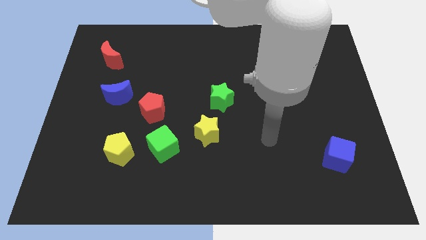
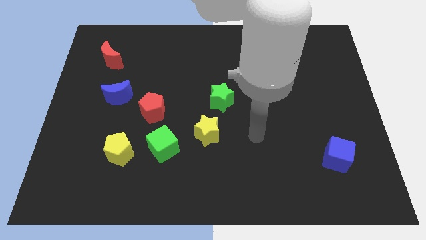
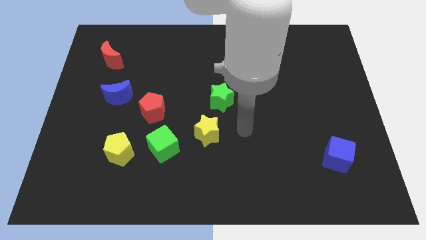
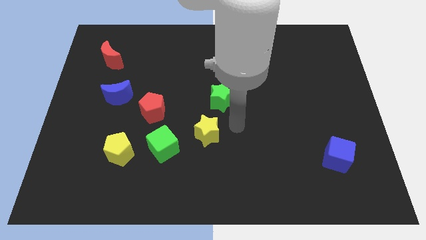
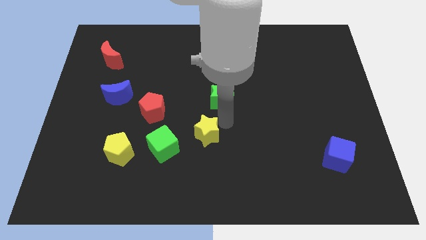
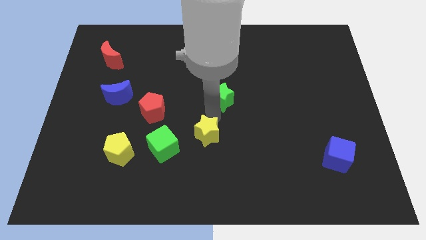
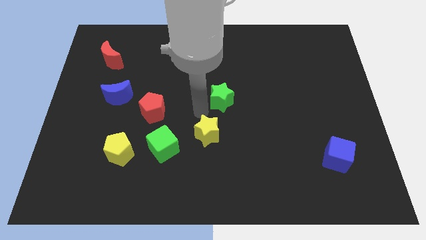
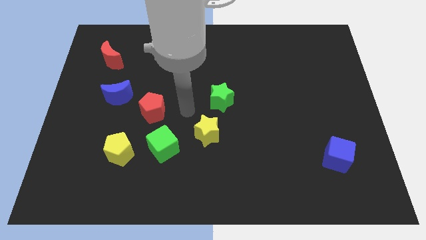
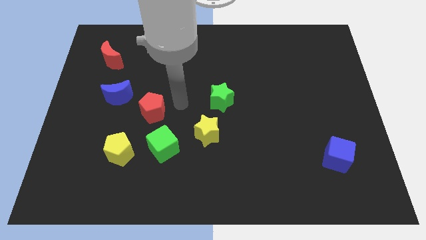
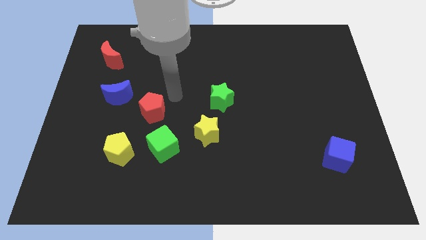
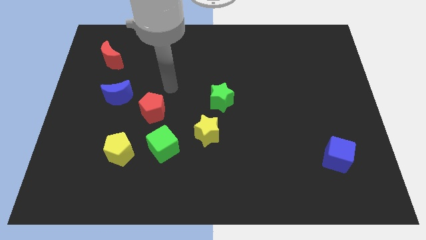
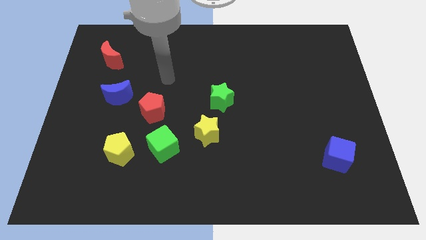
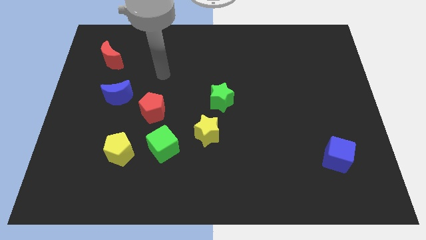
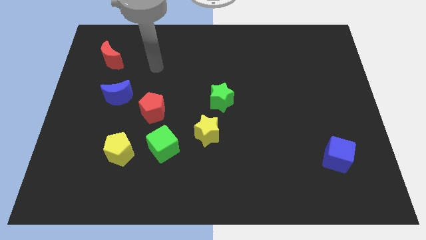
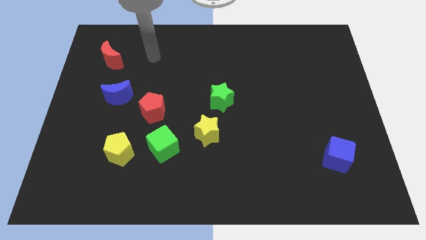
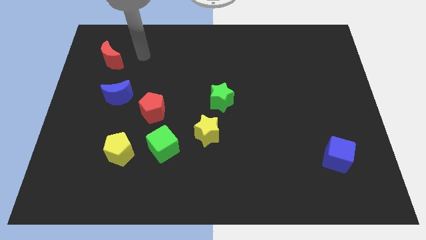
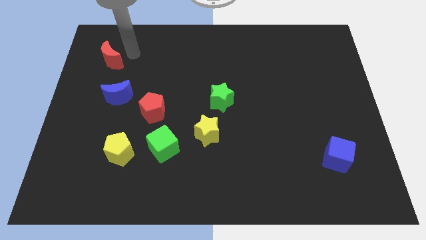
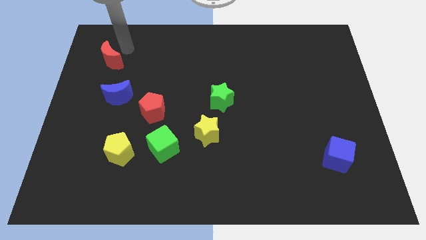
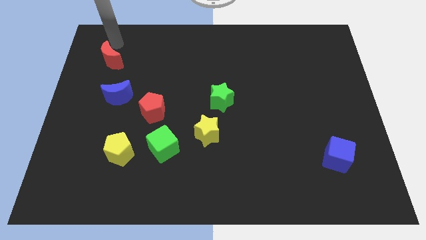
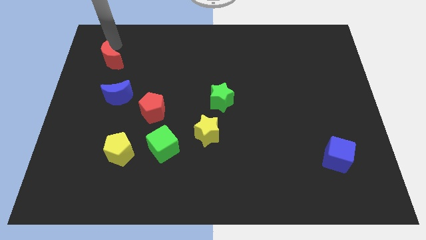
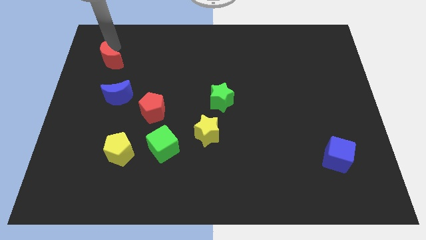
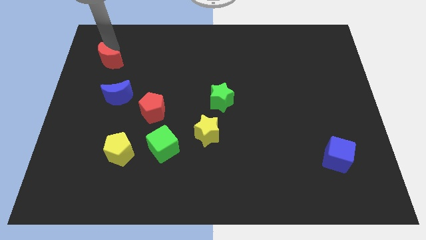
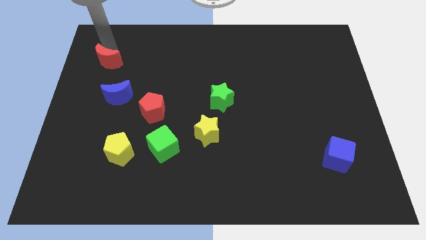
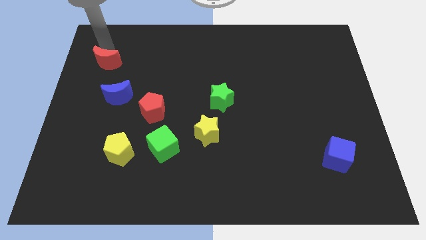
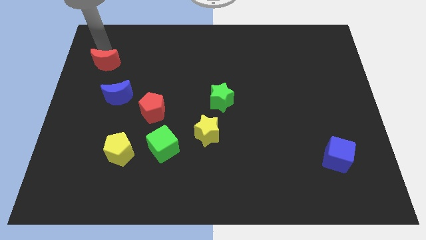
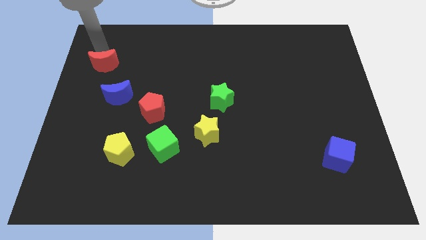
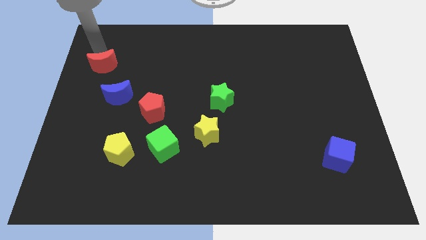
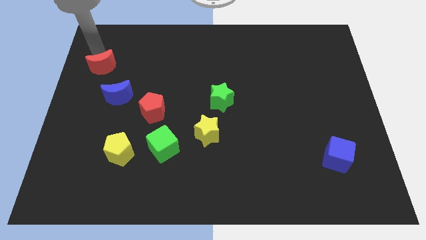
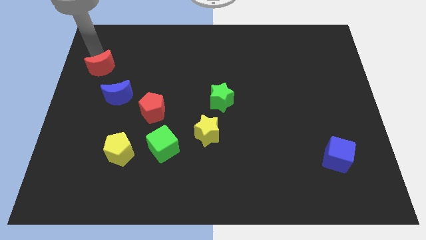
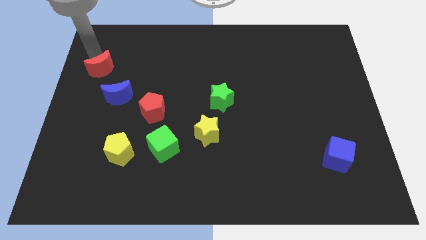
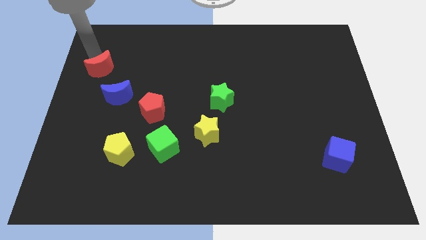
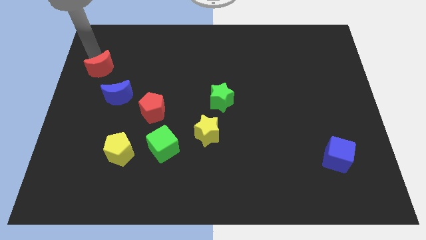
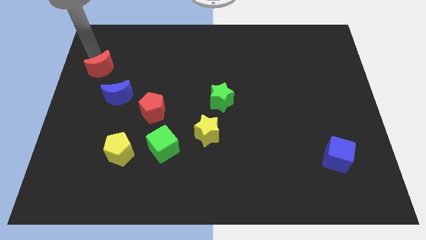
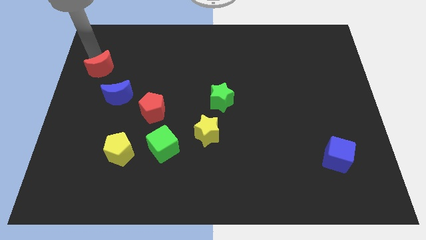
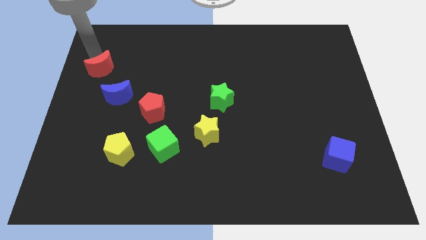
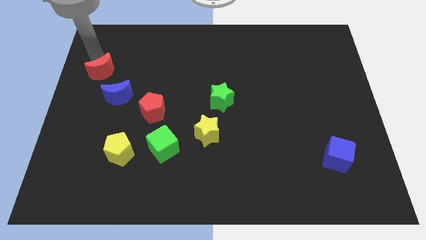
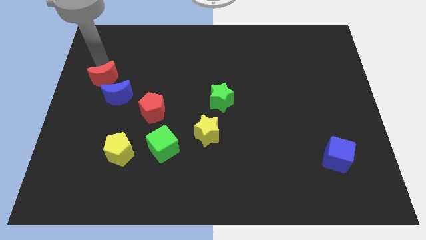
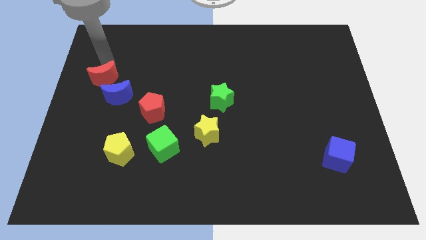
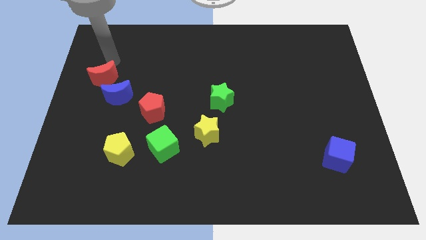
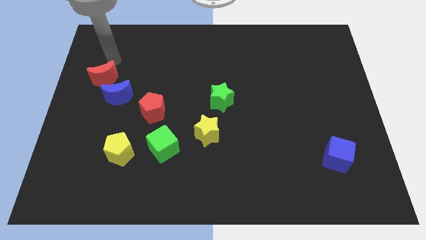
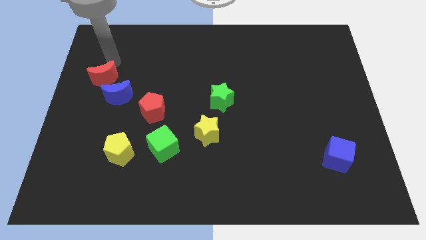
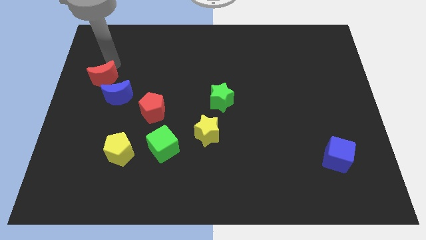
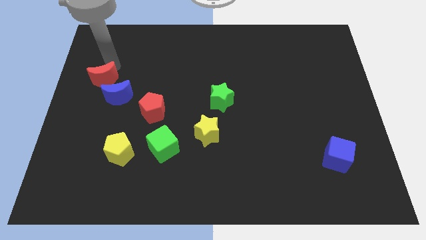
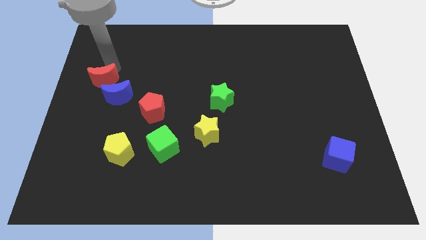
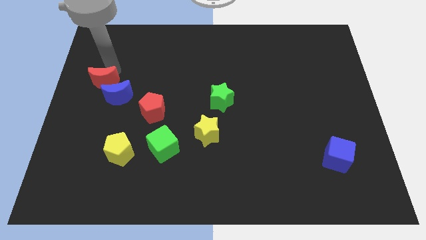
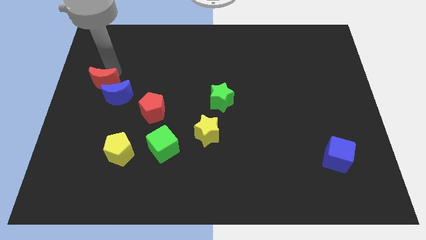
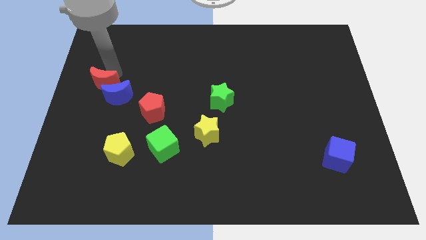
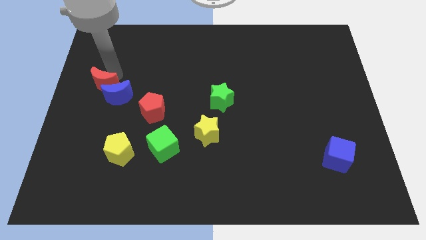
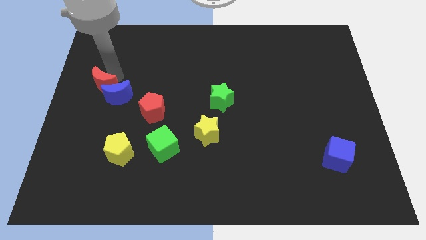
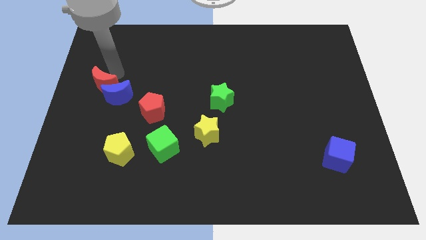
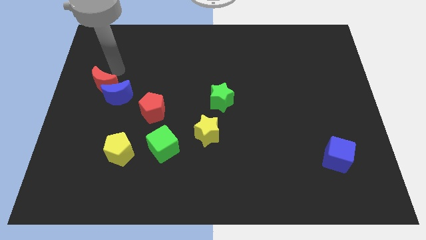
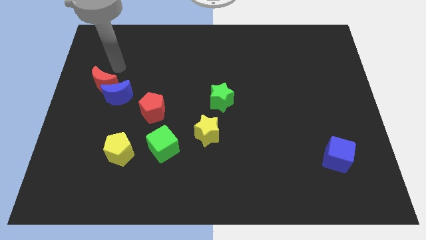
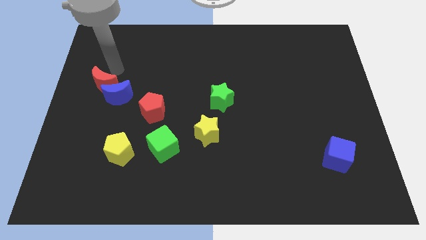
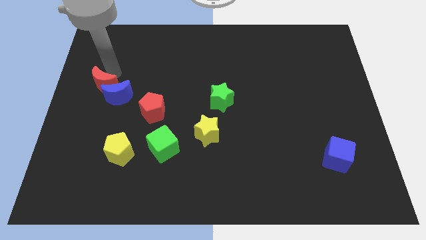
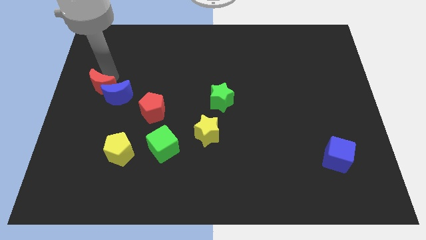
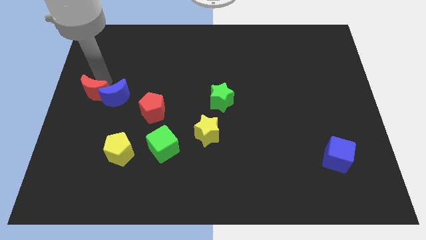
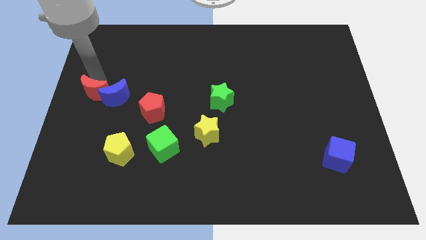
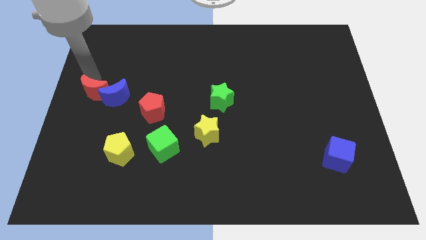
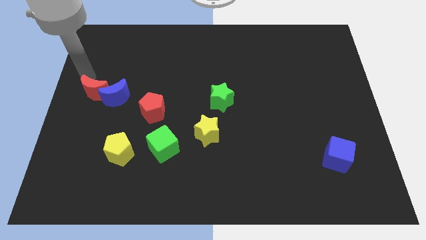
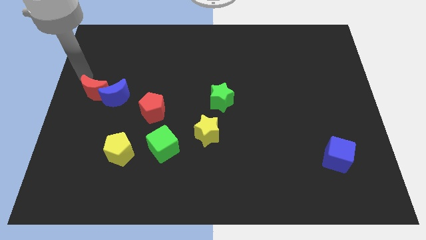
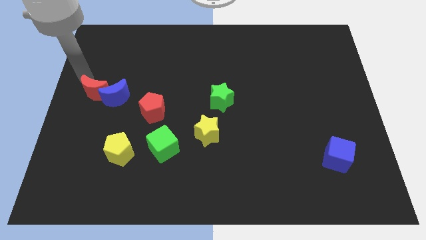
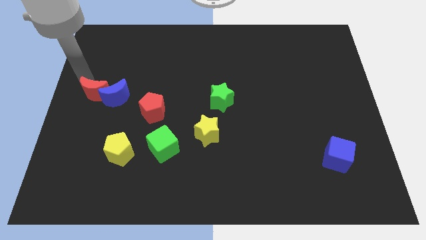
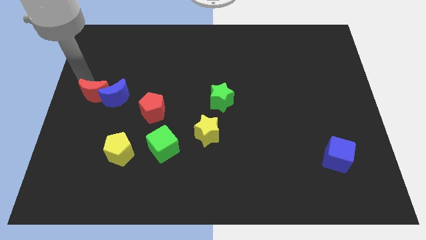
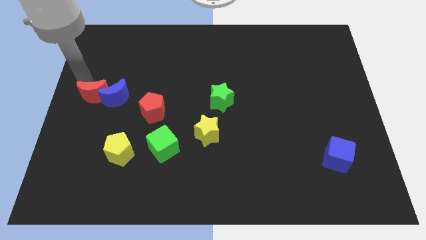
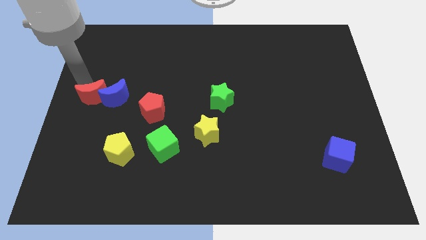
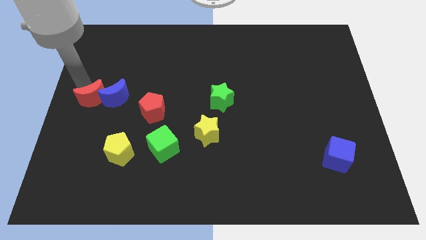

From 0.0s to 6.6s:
slide the red moon just left of the red pentagon

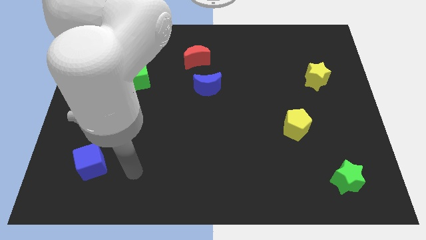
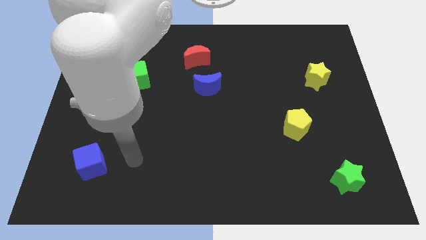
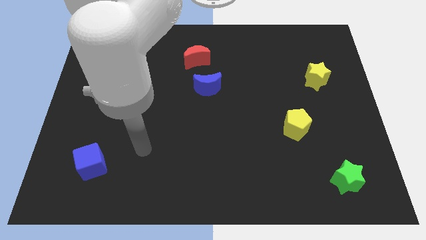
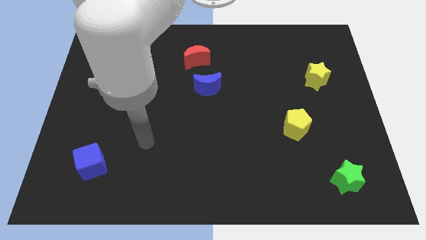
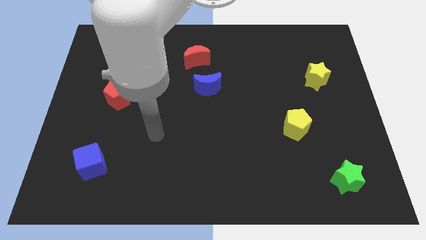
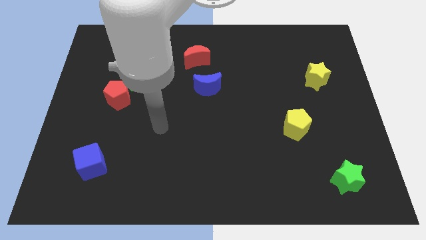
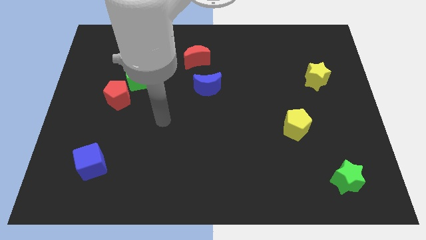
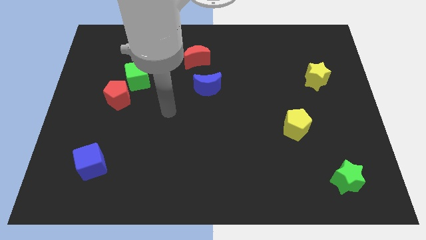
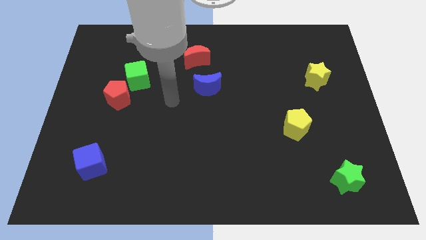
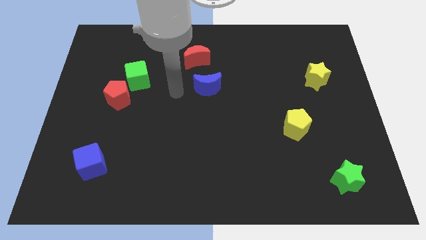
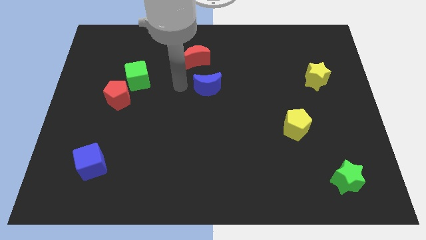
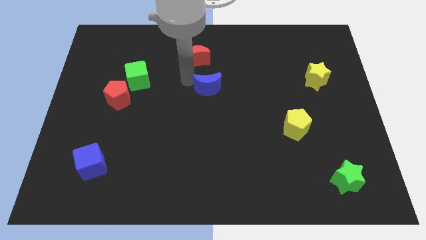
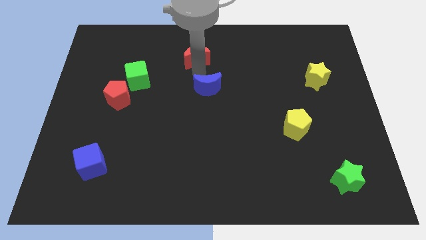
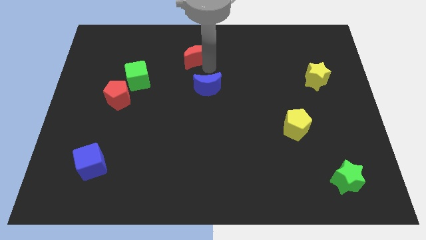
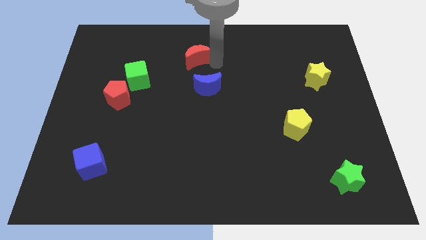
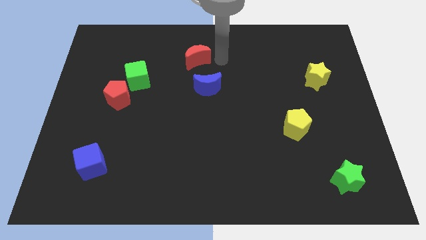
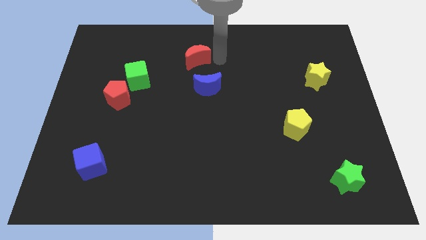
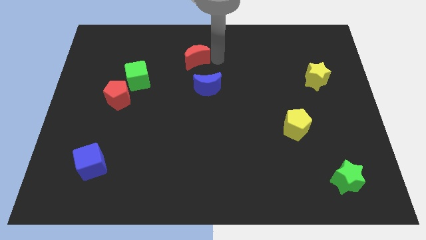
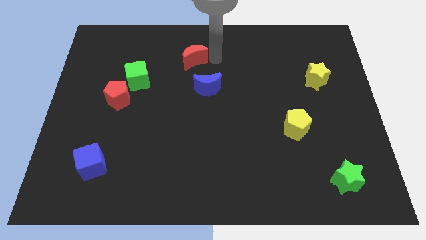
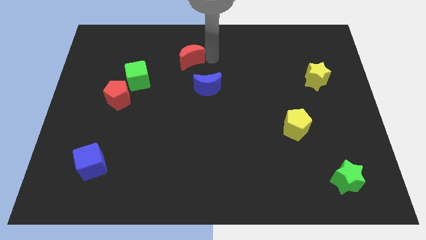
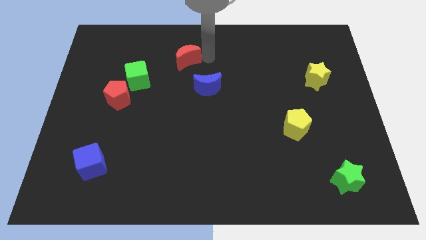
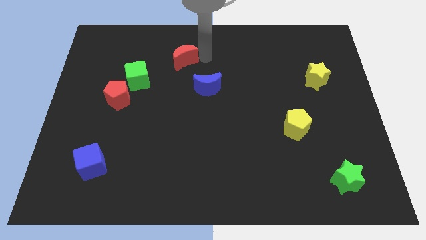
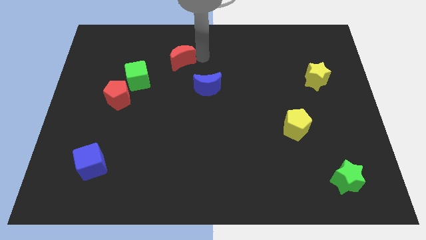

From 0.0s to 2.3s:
put the red moon diagonally up and to the right of the green cube
